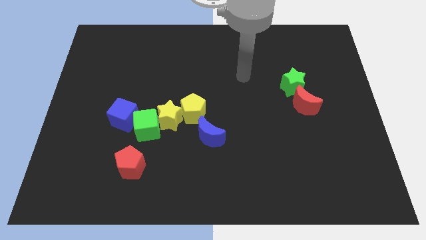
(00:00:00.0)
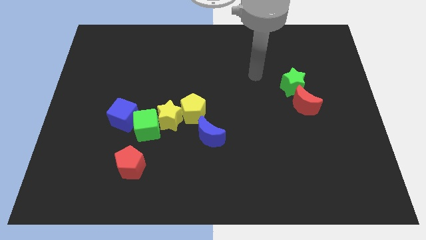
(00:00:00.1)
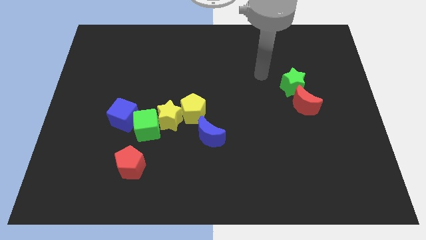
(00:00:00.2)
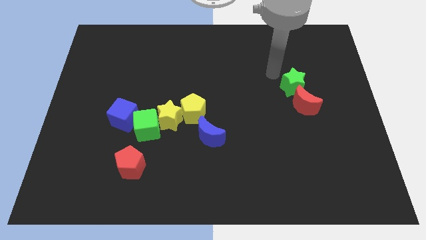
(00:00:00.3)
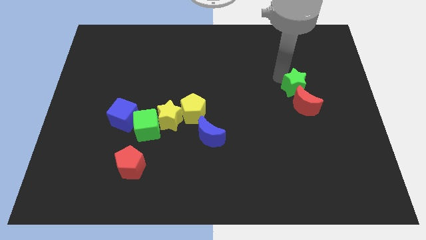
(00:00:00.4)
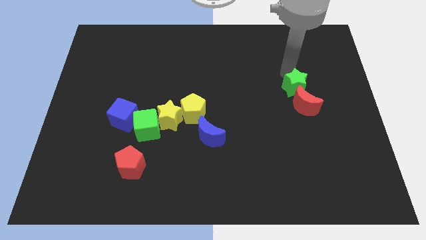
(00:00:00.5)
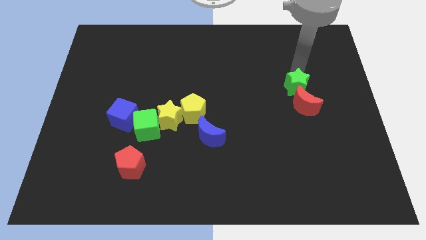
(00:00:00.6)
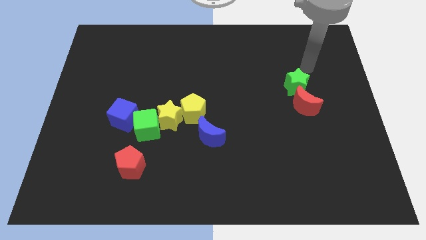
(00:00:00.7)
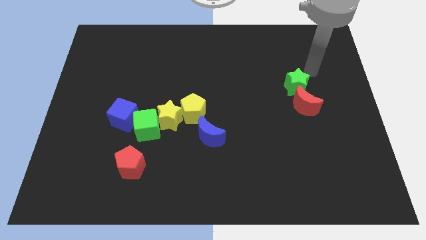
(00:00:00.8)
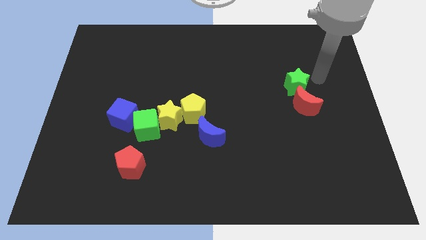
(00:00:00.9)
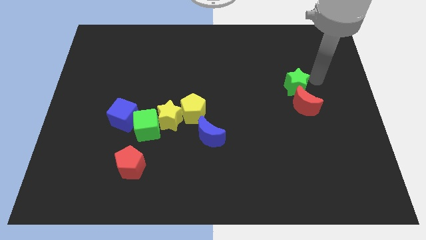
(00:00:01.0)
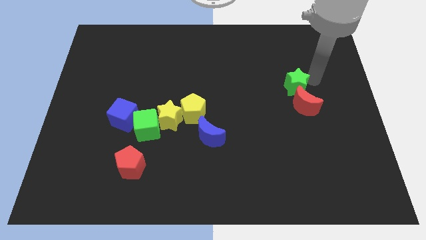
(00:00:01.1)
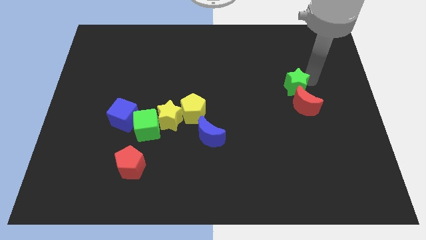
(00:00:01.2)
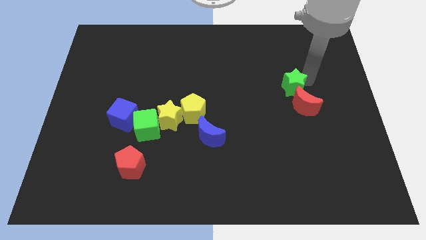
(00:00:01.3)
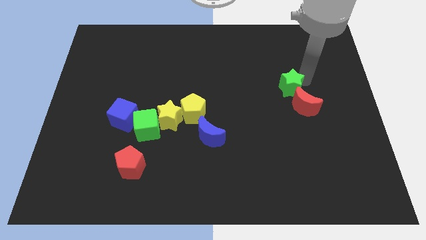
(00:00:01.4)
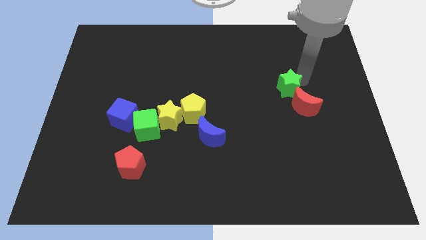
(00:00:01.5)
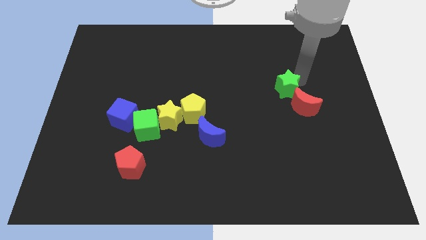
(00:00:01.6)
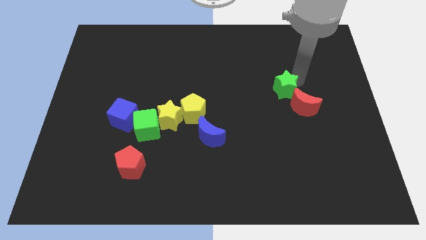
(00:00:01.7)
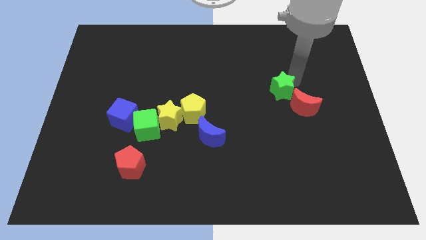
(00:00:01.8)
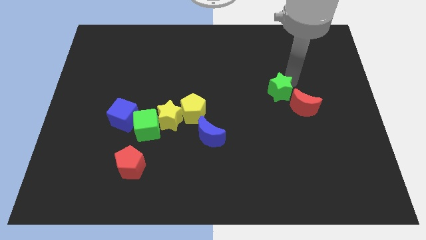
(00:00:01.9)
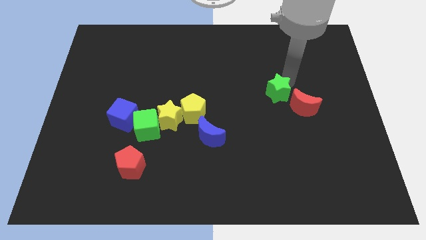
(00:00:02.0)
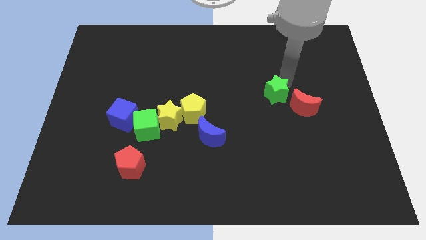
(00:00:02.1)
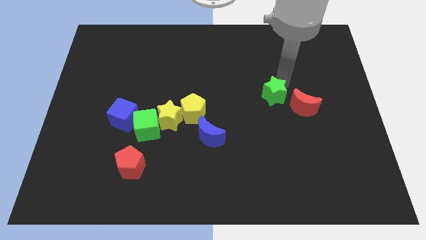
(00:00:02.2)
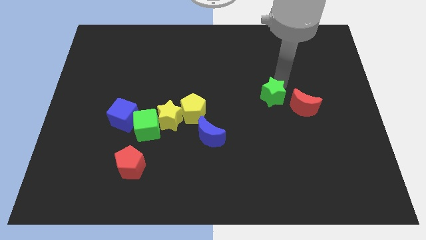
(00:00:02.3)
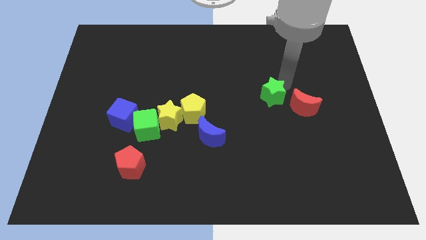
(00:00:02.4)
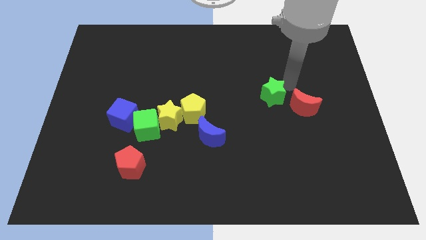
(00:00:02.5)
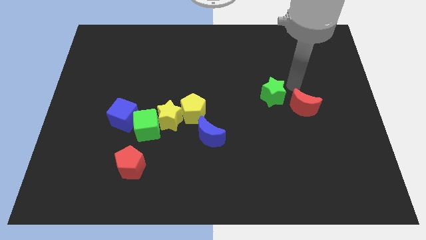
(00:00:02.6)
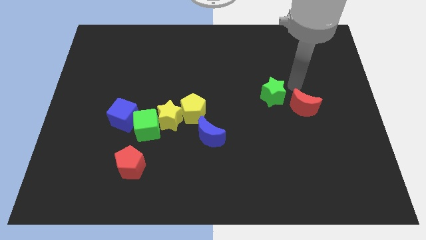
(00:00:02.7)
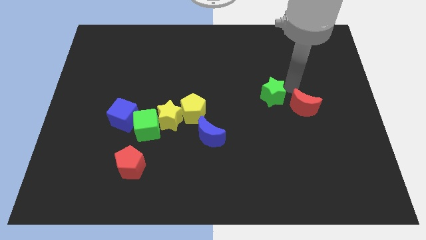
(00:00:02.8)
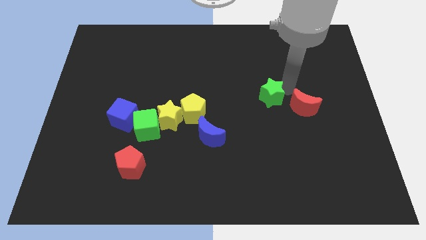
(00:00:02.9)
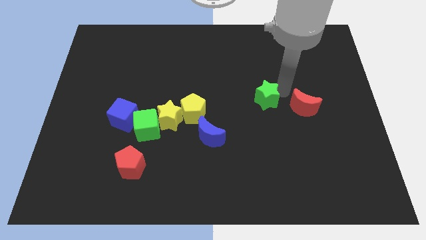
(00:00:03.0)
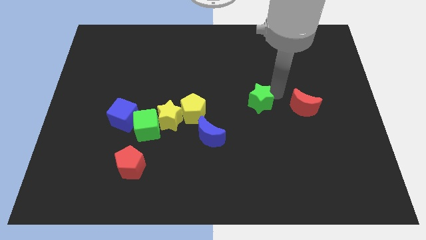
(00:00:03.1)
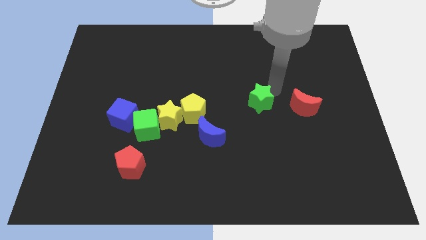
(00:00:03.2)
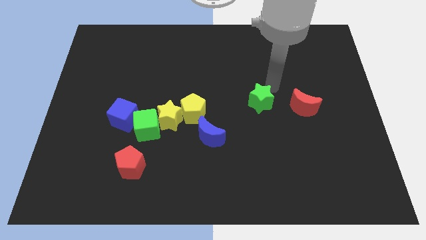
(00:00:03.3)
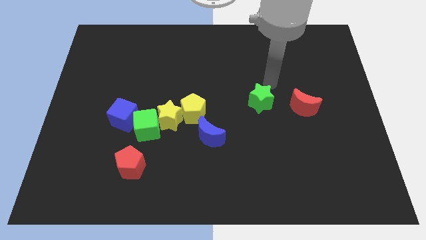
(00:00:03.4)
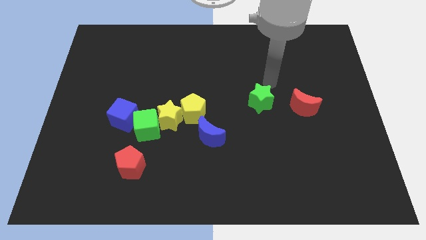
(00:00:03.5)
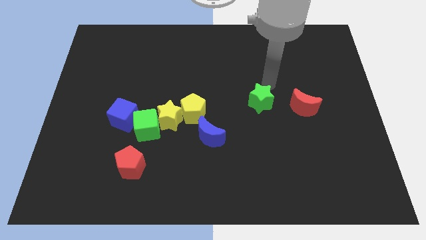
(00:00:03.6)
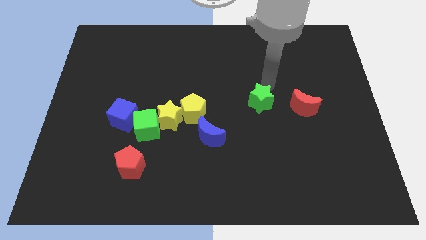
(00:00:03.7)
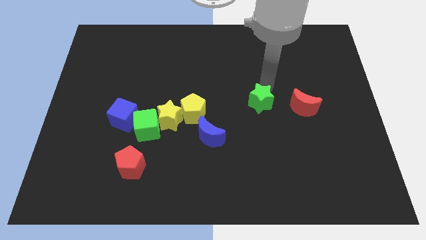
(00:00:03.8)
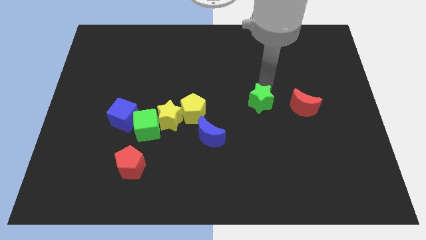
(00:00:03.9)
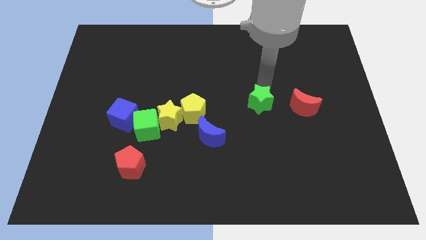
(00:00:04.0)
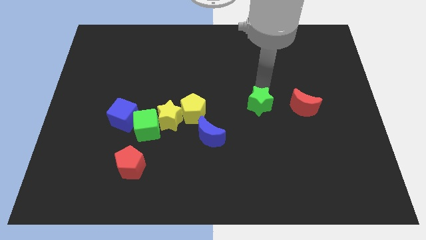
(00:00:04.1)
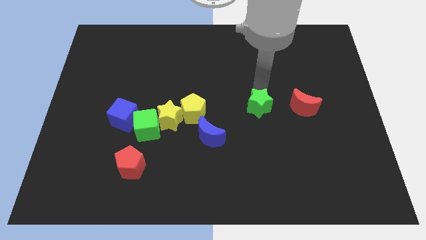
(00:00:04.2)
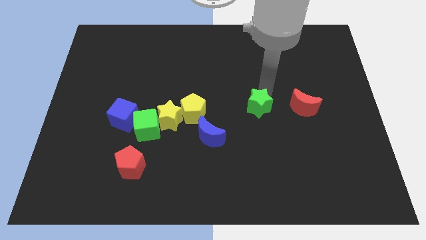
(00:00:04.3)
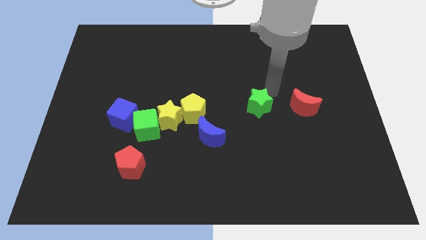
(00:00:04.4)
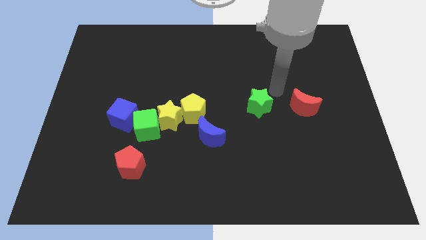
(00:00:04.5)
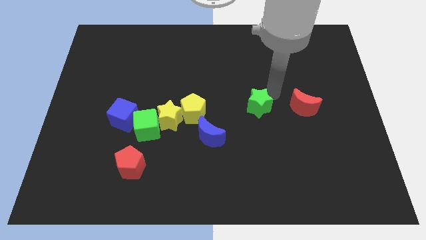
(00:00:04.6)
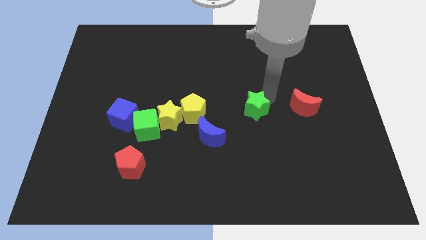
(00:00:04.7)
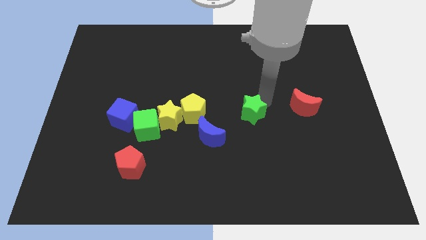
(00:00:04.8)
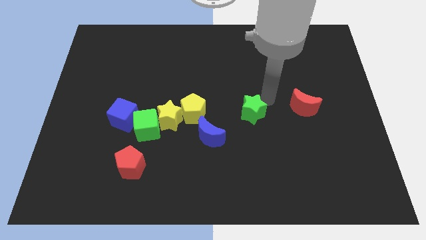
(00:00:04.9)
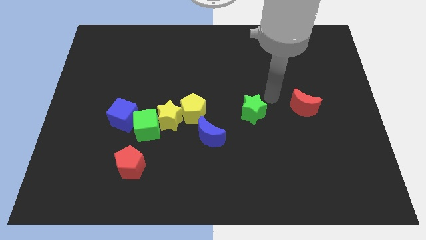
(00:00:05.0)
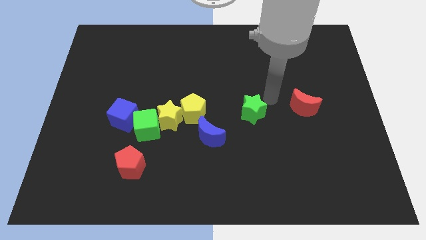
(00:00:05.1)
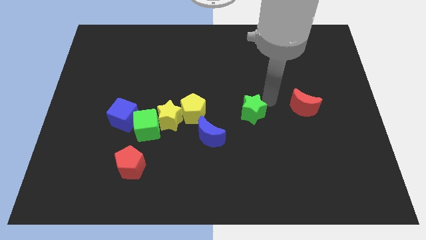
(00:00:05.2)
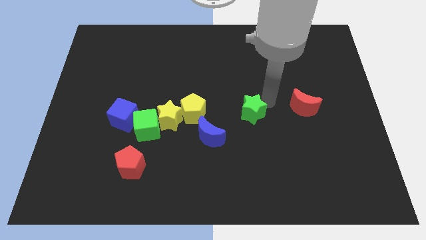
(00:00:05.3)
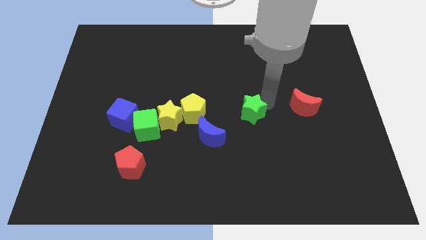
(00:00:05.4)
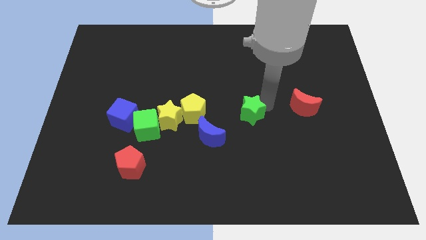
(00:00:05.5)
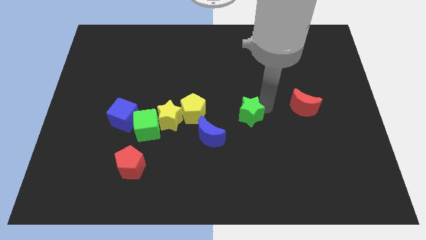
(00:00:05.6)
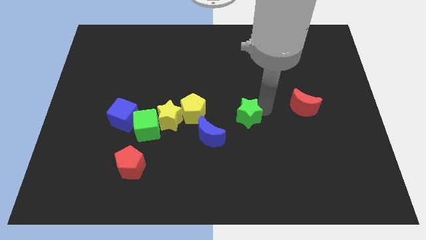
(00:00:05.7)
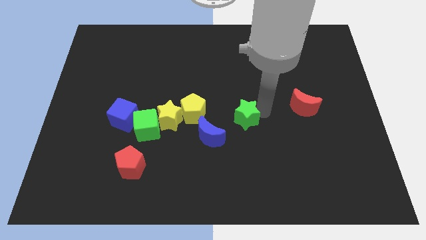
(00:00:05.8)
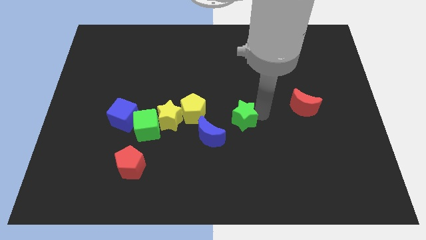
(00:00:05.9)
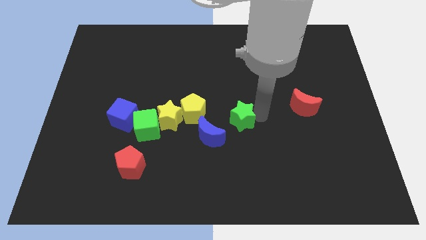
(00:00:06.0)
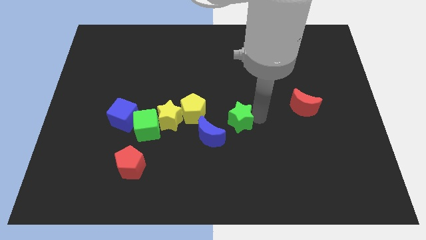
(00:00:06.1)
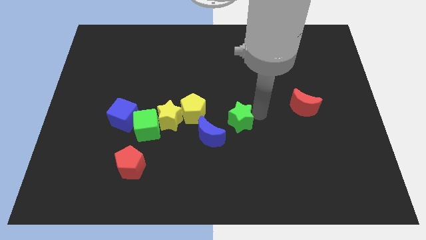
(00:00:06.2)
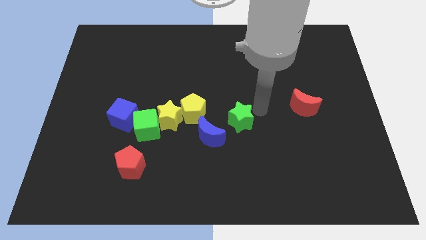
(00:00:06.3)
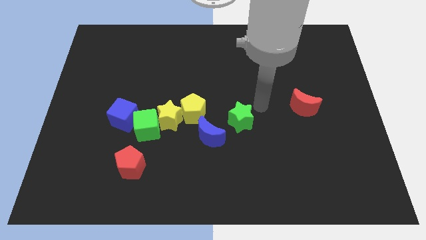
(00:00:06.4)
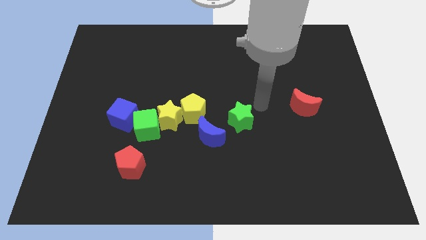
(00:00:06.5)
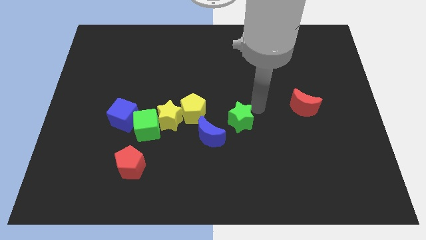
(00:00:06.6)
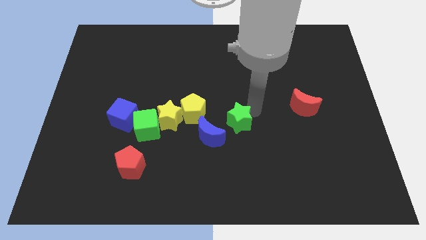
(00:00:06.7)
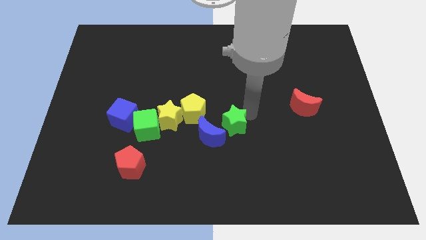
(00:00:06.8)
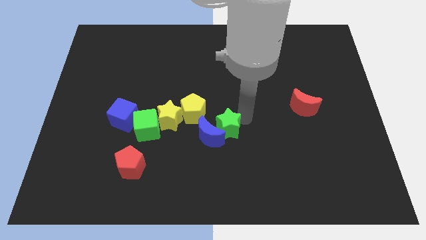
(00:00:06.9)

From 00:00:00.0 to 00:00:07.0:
move the green star next to the blue moon

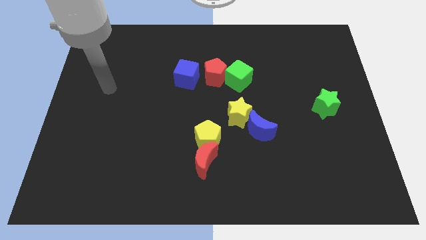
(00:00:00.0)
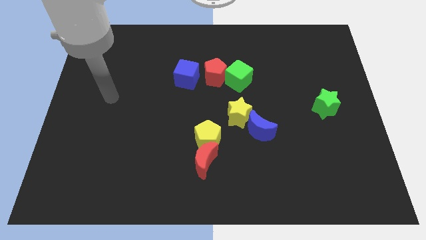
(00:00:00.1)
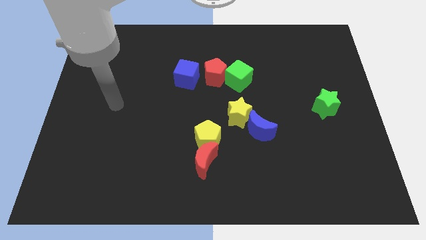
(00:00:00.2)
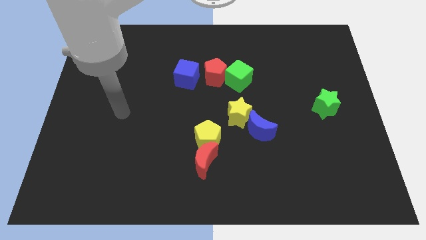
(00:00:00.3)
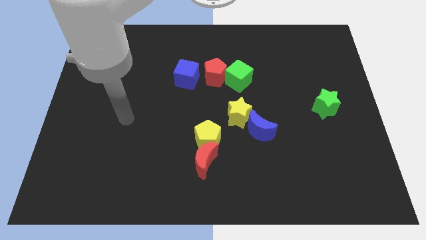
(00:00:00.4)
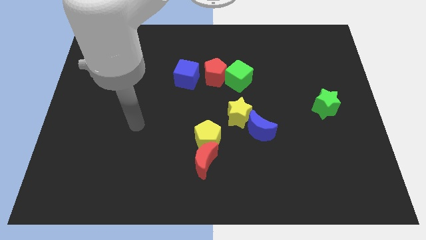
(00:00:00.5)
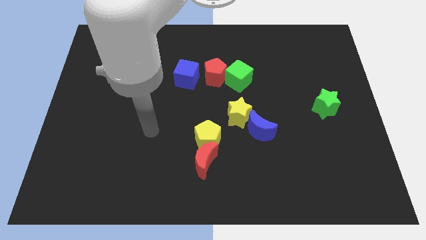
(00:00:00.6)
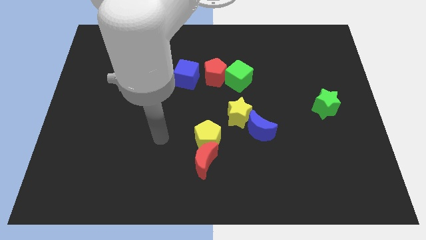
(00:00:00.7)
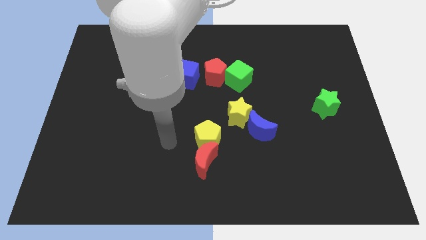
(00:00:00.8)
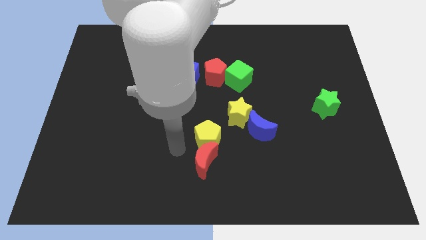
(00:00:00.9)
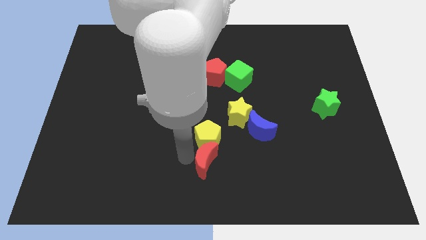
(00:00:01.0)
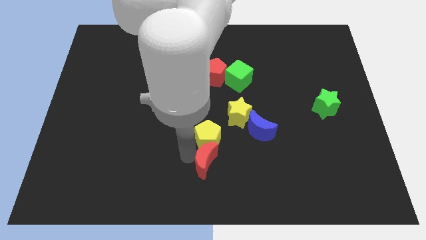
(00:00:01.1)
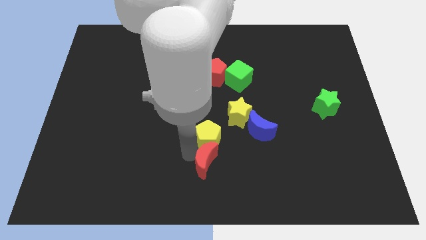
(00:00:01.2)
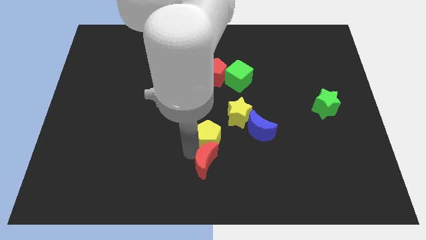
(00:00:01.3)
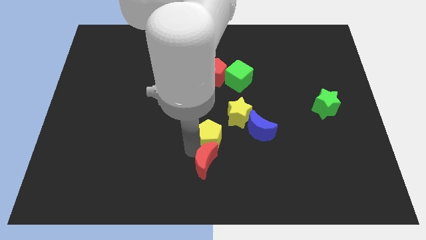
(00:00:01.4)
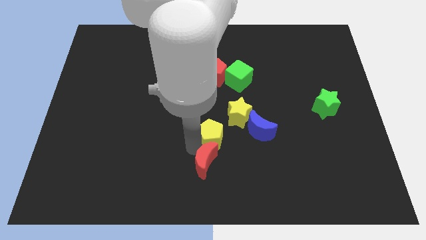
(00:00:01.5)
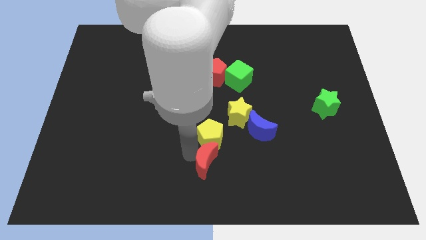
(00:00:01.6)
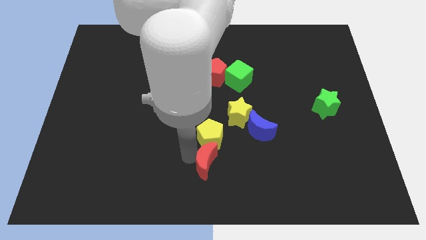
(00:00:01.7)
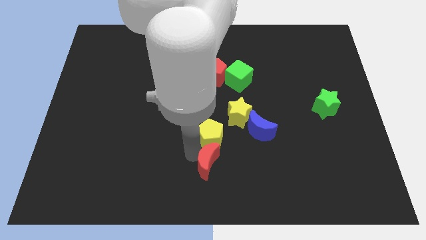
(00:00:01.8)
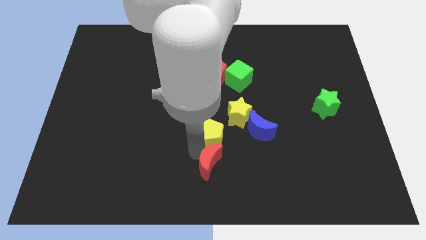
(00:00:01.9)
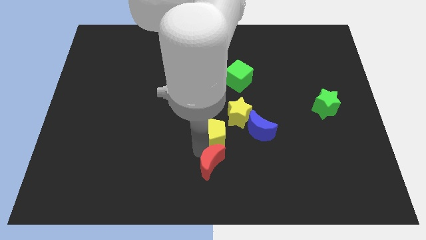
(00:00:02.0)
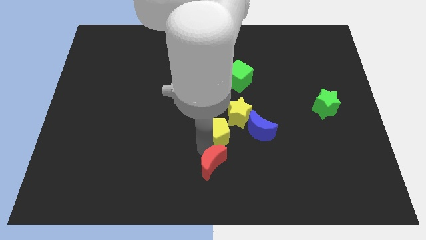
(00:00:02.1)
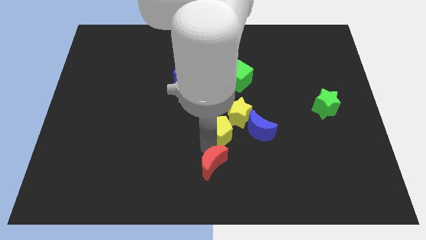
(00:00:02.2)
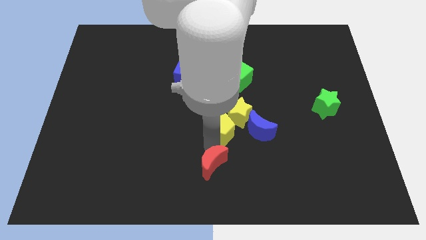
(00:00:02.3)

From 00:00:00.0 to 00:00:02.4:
push the yellow pentagon close to the yellow star
